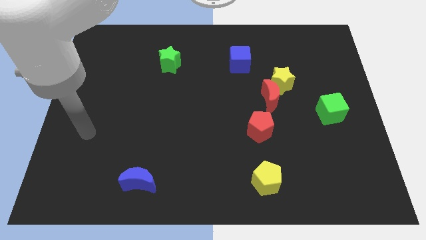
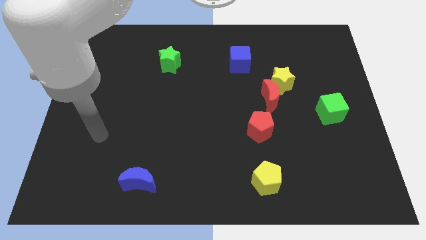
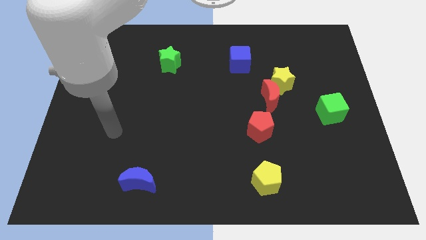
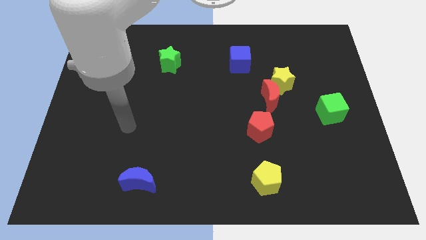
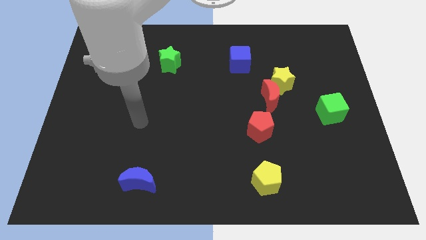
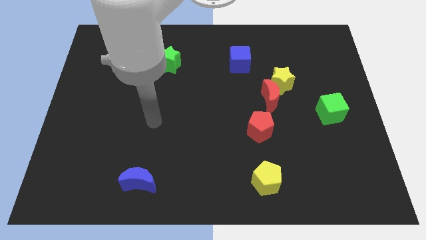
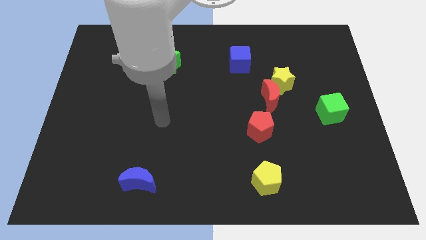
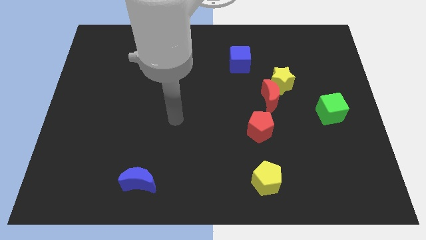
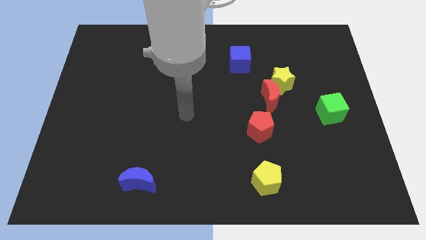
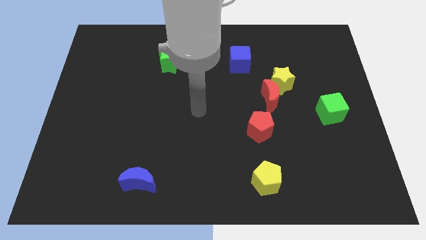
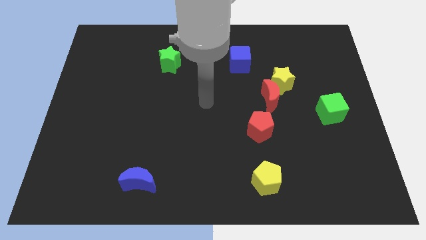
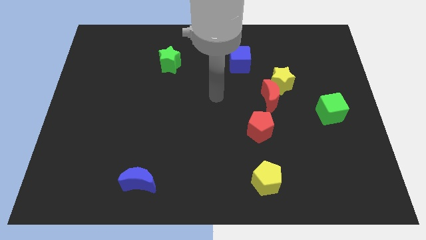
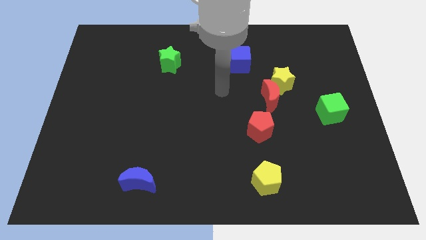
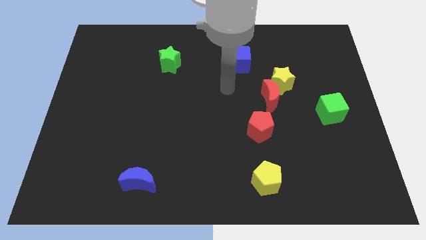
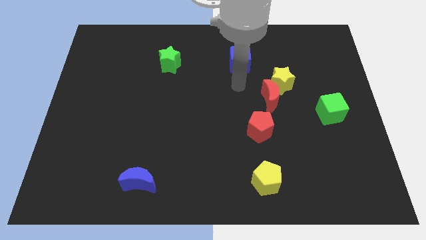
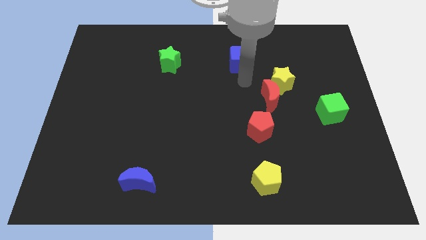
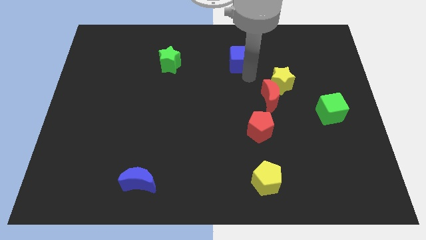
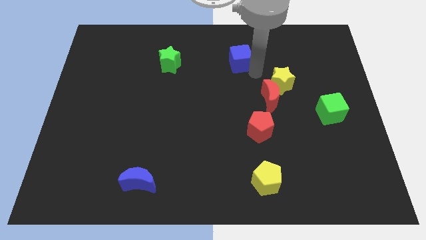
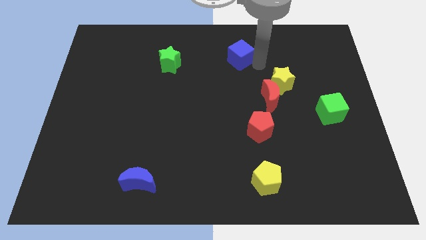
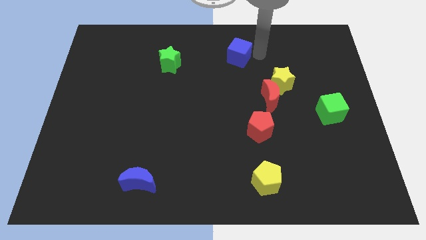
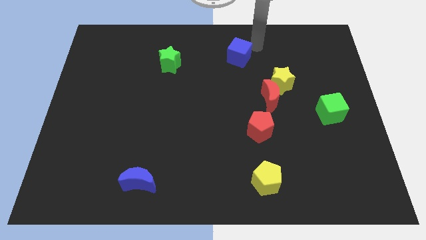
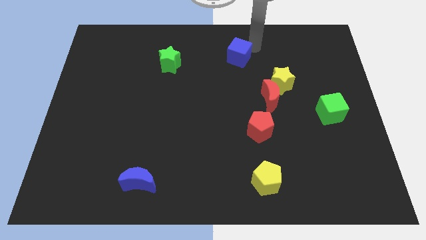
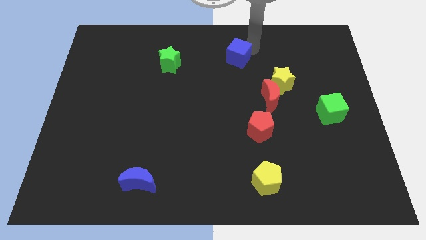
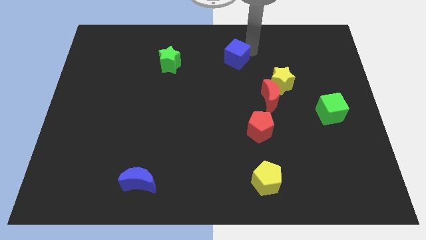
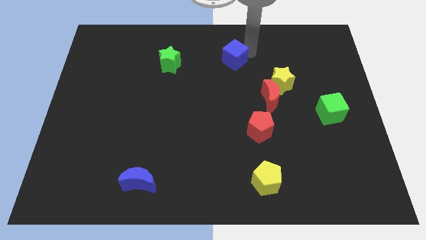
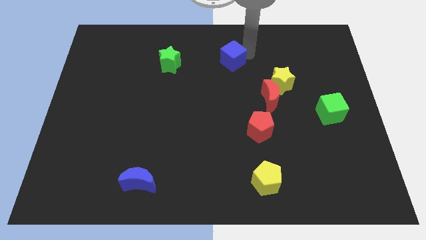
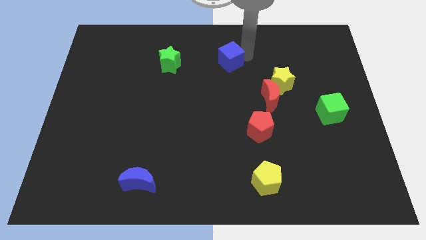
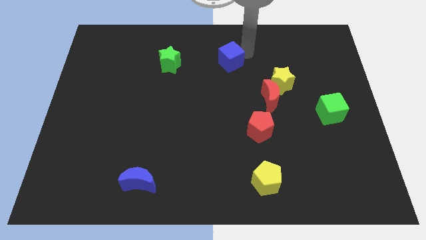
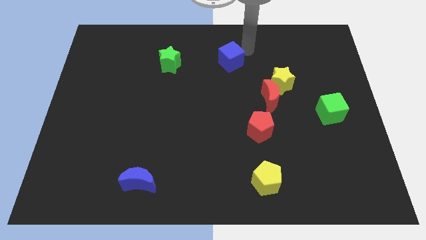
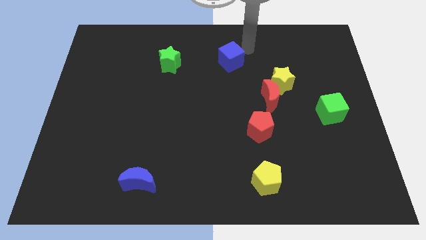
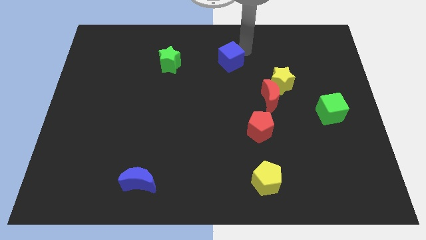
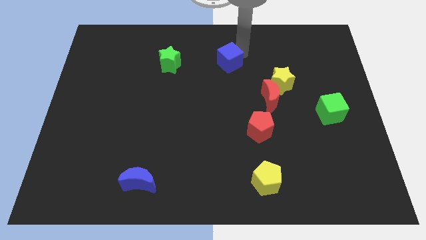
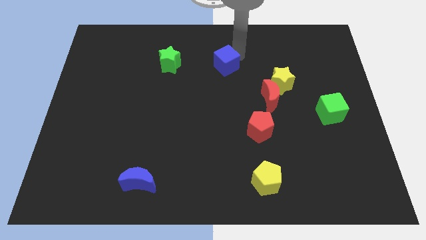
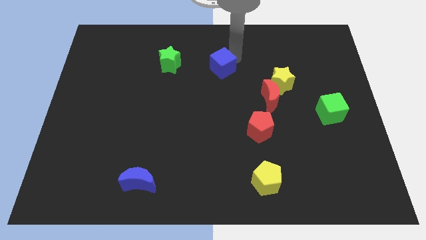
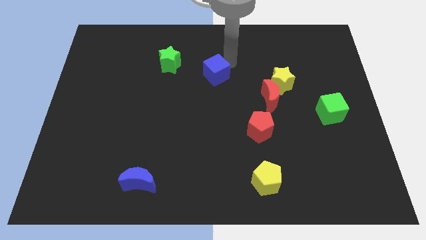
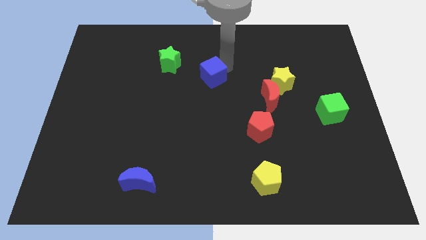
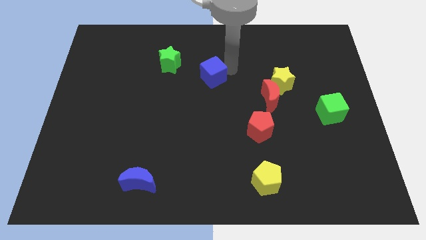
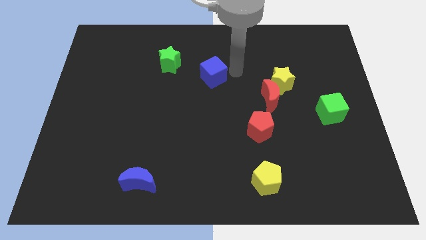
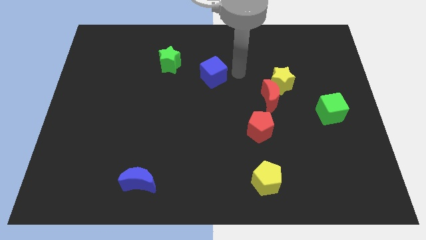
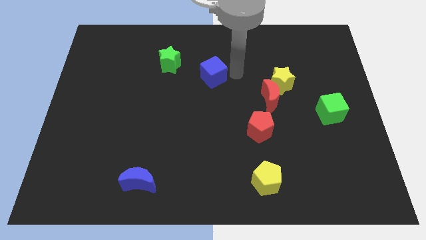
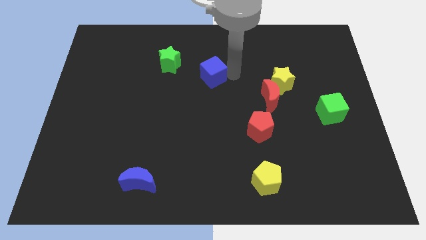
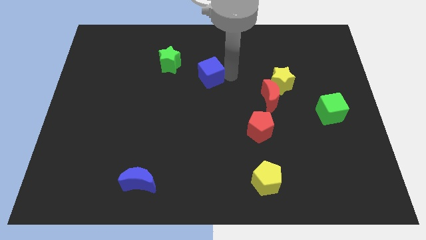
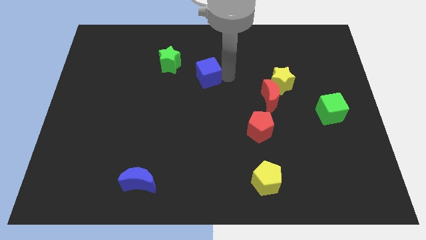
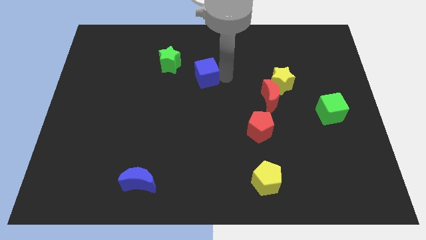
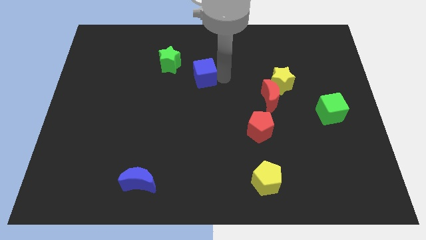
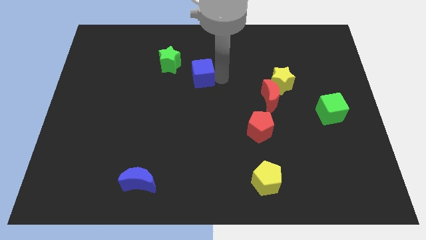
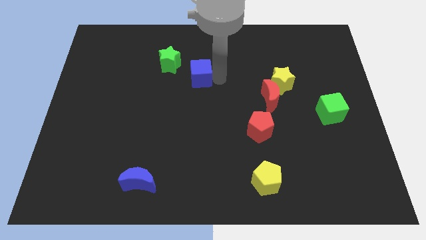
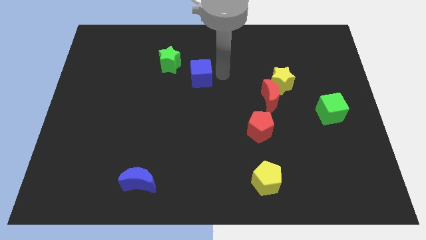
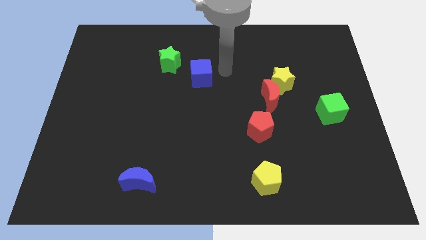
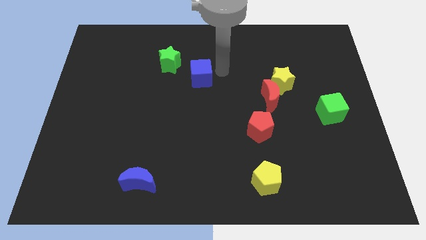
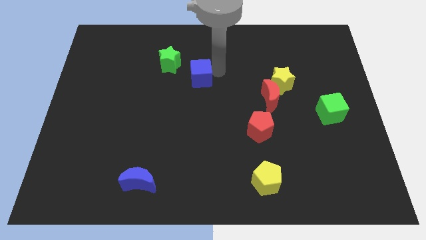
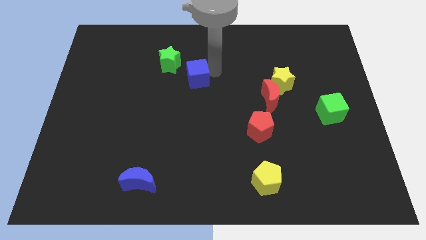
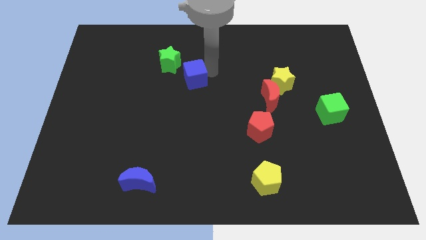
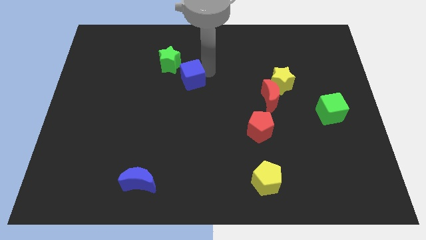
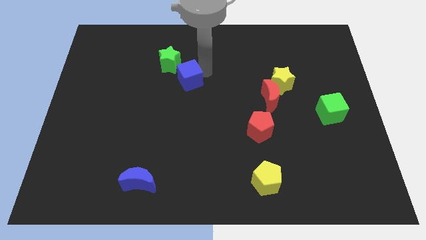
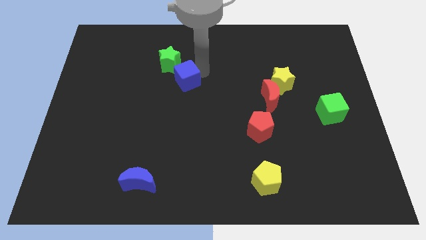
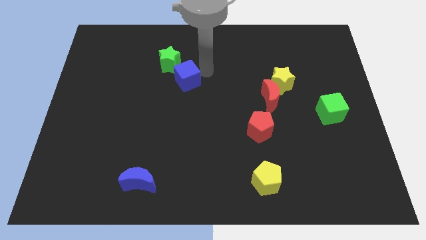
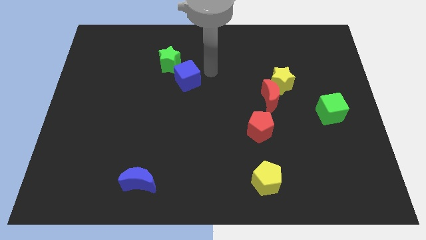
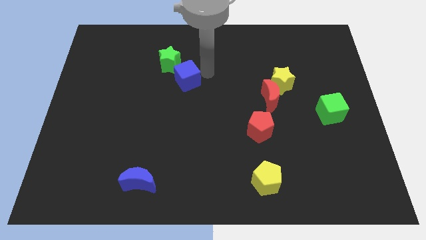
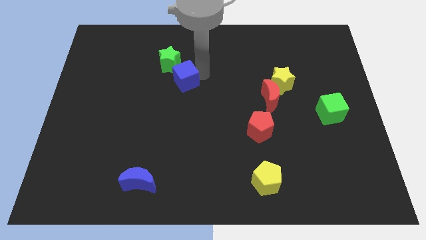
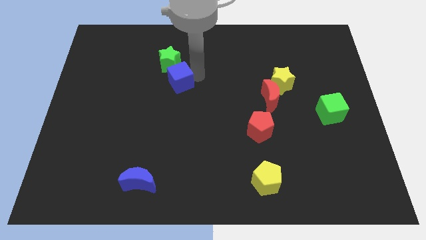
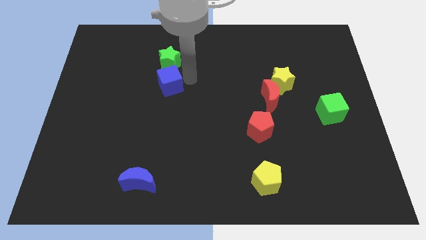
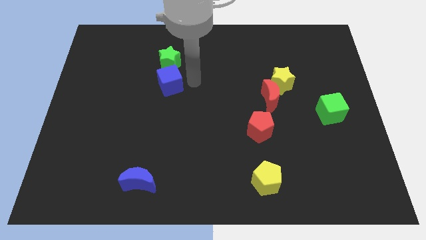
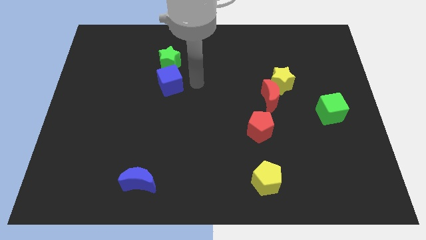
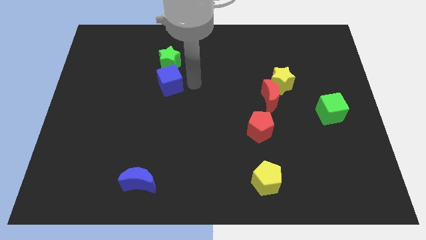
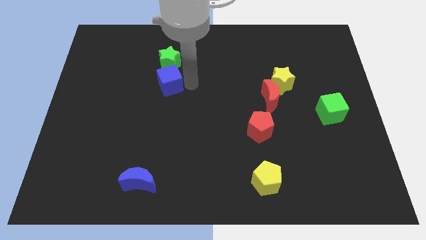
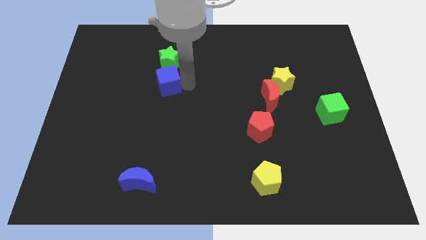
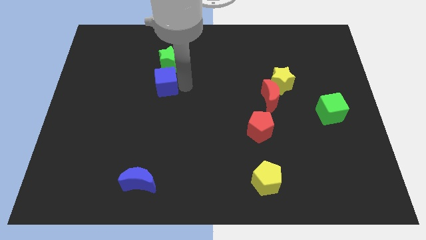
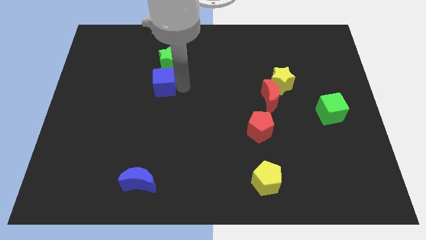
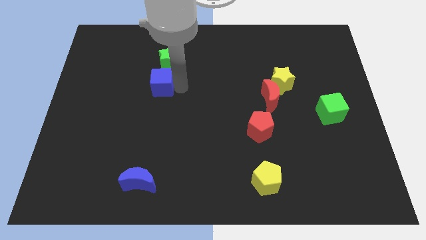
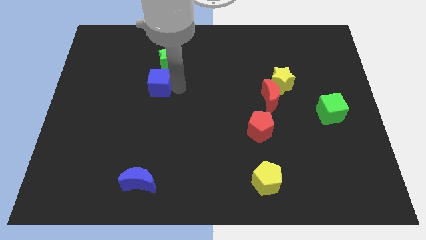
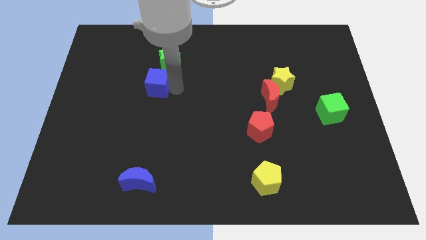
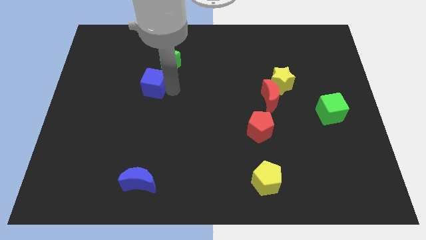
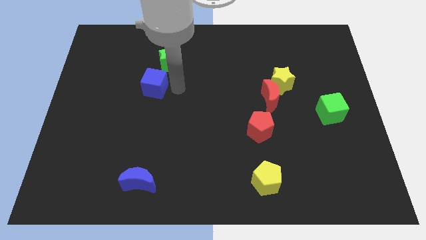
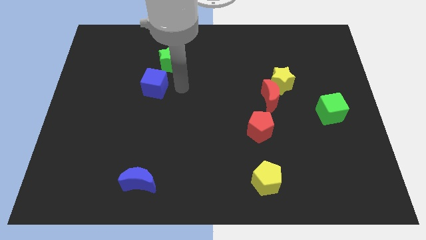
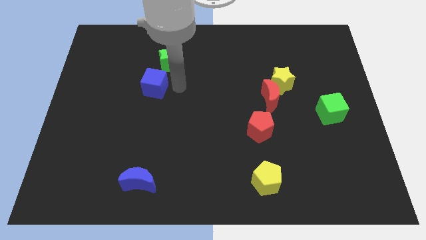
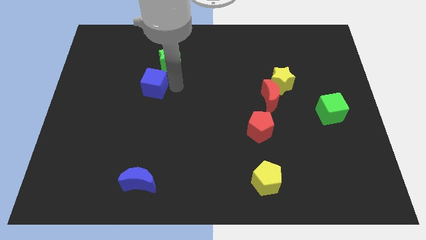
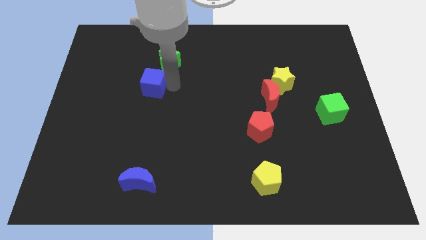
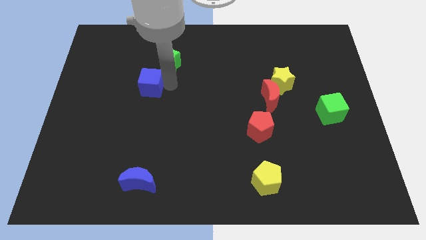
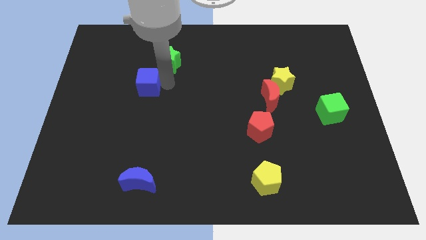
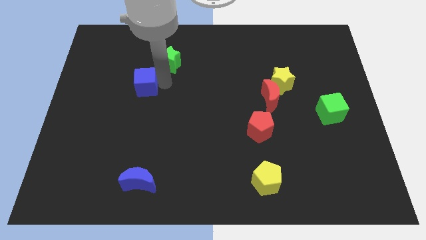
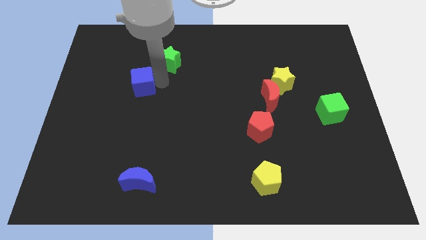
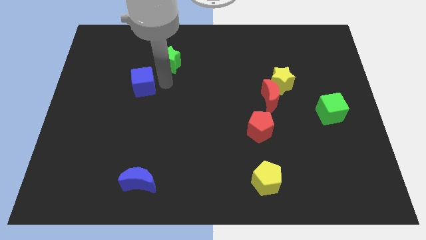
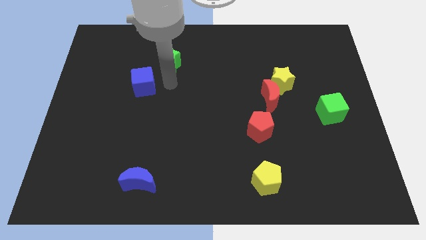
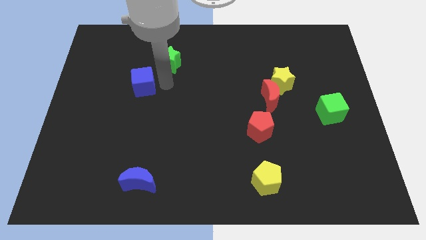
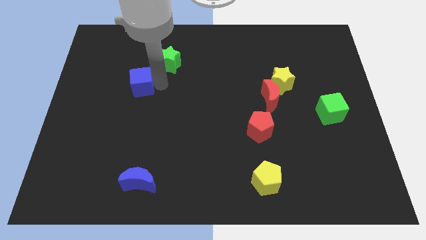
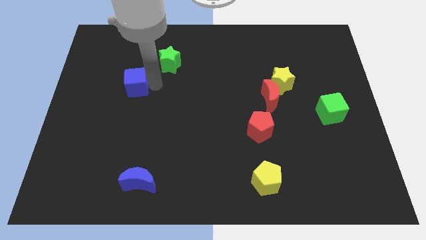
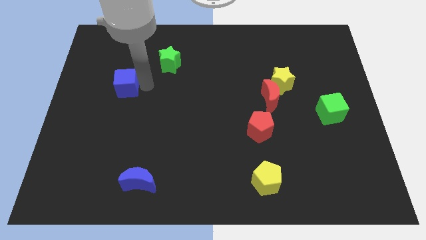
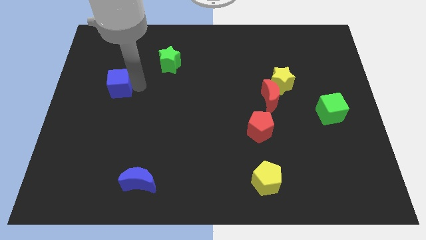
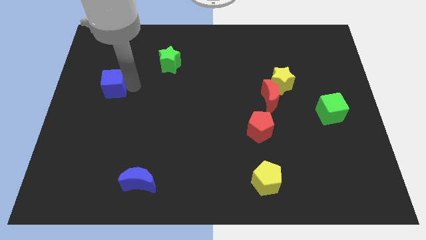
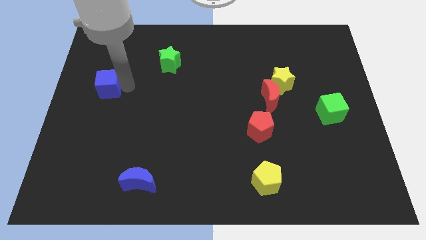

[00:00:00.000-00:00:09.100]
move the blue cube to the left side
